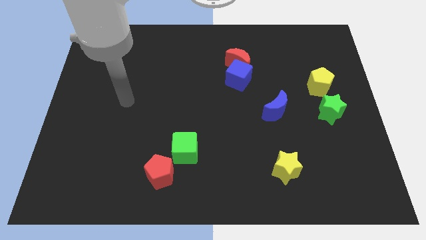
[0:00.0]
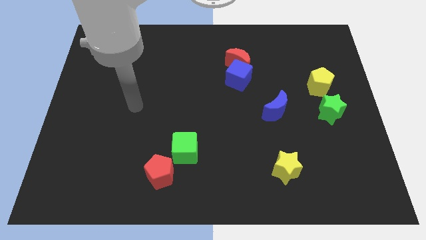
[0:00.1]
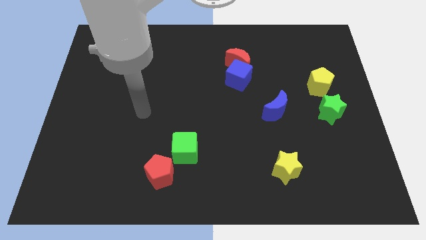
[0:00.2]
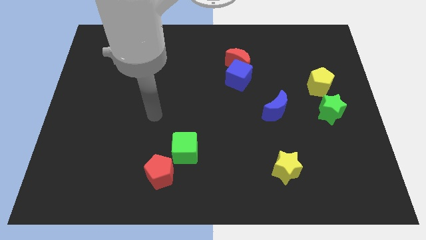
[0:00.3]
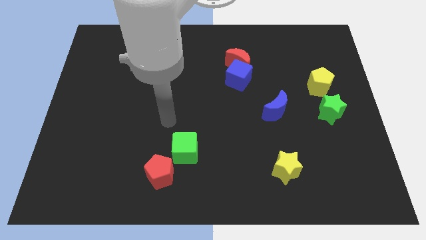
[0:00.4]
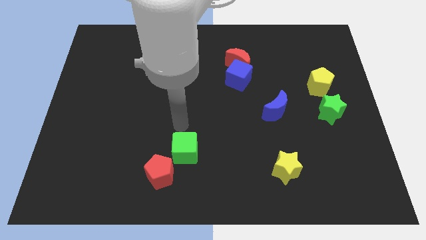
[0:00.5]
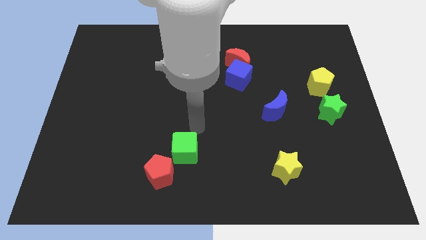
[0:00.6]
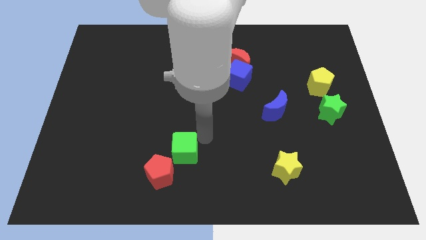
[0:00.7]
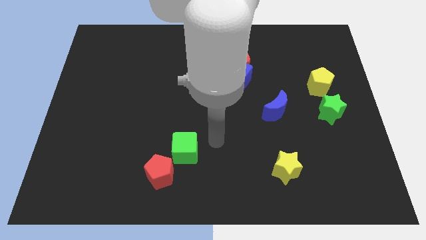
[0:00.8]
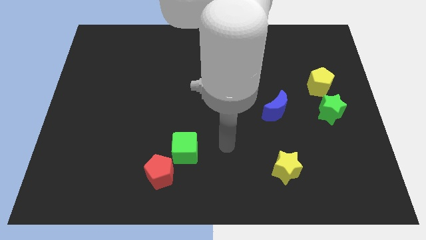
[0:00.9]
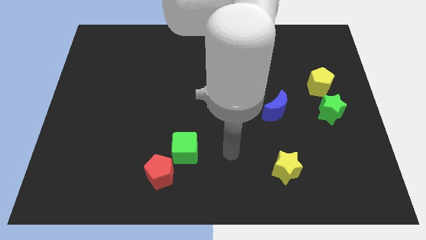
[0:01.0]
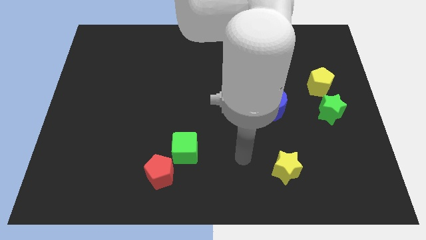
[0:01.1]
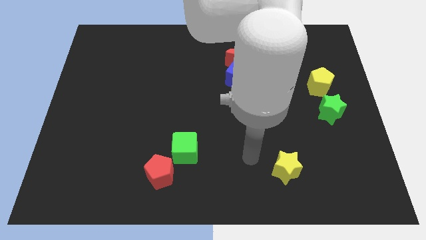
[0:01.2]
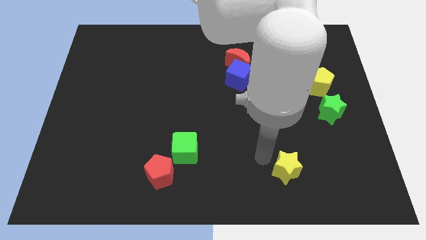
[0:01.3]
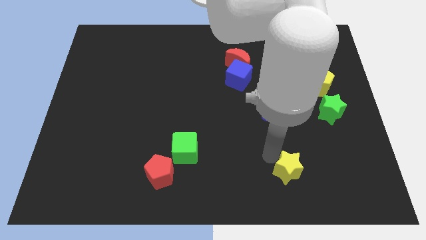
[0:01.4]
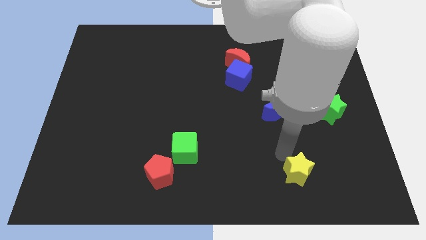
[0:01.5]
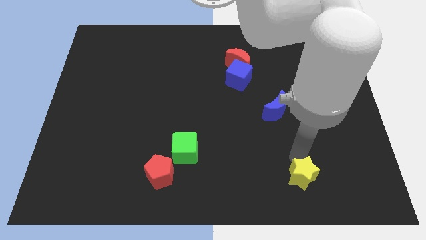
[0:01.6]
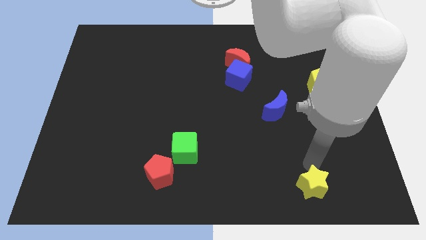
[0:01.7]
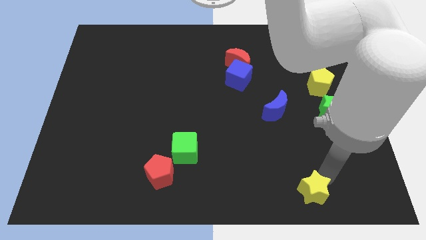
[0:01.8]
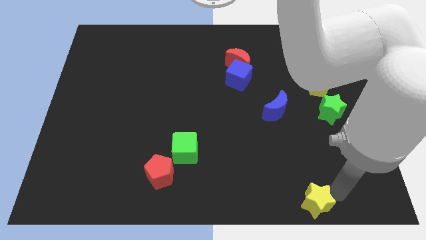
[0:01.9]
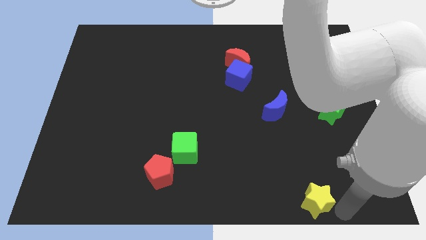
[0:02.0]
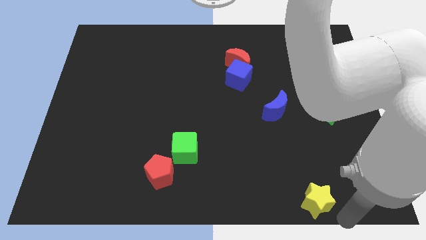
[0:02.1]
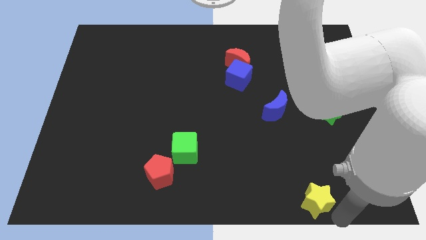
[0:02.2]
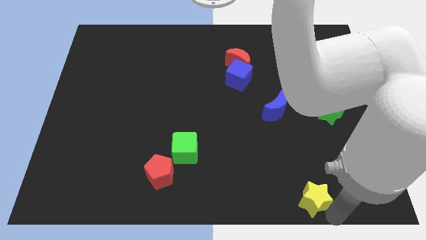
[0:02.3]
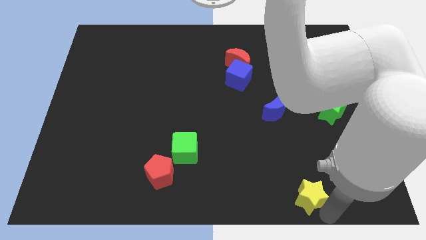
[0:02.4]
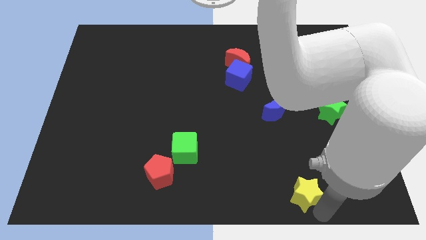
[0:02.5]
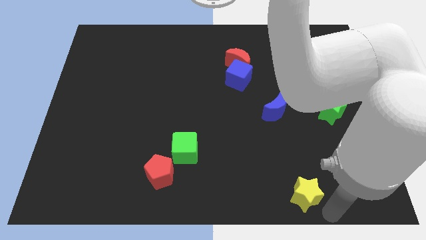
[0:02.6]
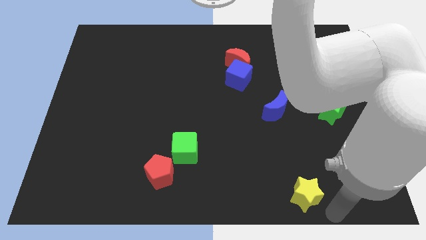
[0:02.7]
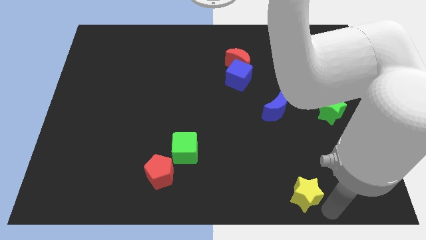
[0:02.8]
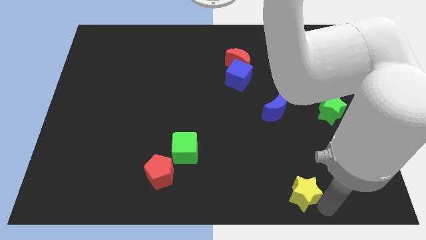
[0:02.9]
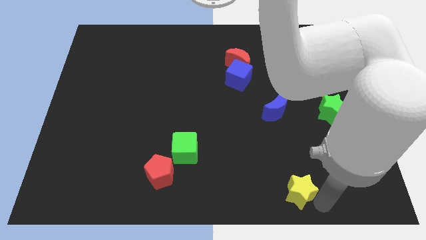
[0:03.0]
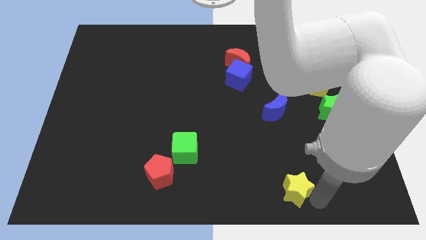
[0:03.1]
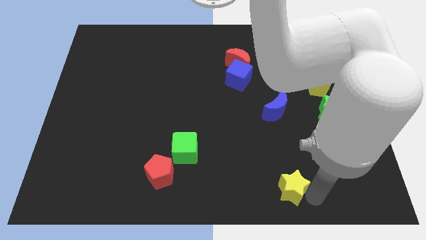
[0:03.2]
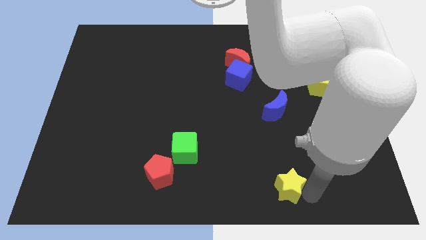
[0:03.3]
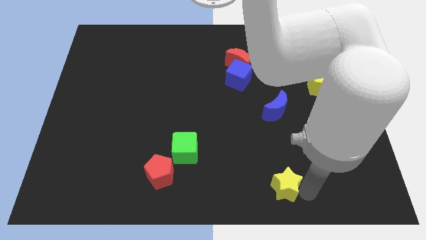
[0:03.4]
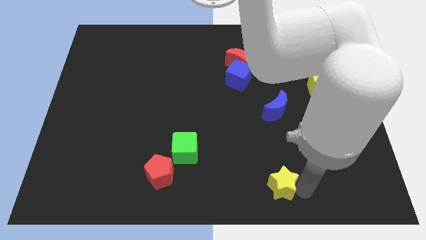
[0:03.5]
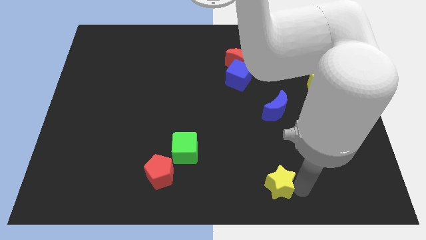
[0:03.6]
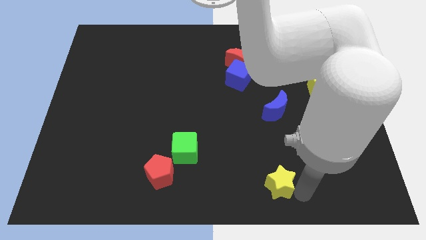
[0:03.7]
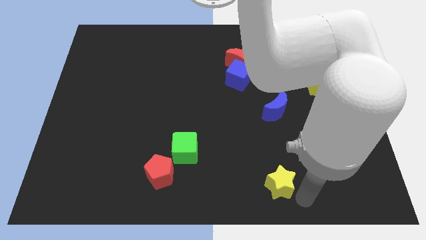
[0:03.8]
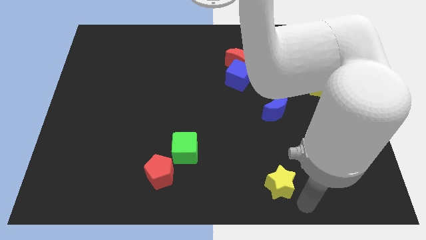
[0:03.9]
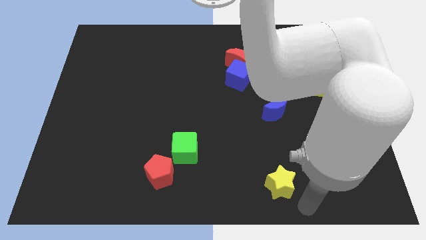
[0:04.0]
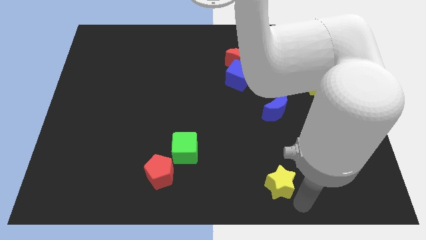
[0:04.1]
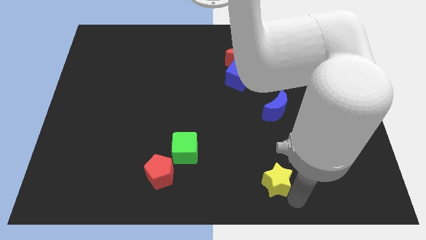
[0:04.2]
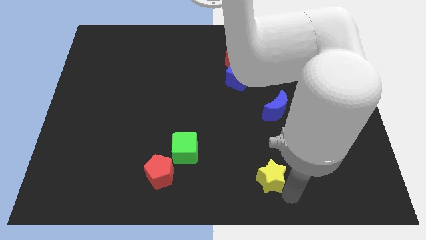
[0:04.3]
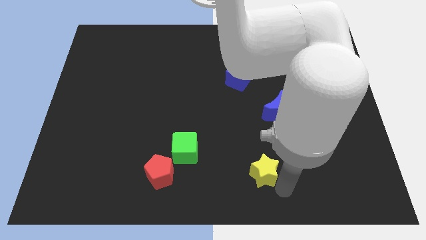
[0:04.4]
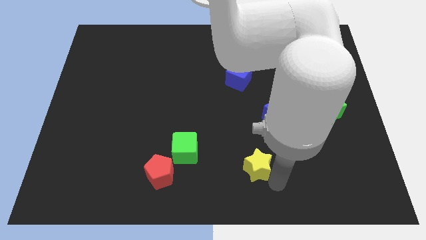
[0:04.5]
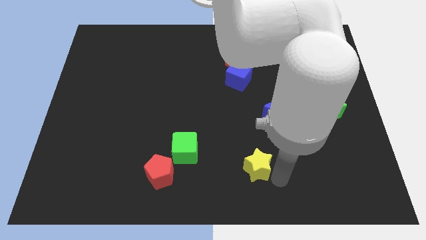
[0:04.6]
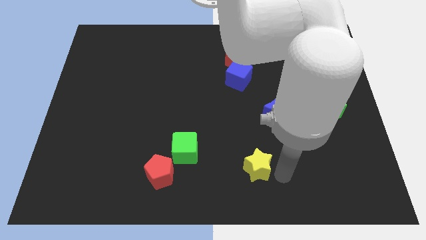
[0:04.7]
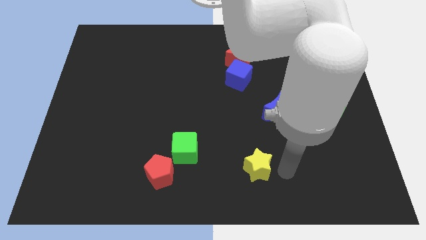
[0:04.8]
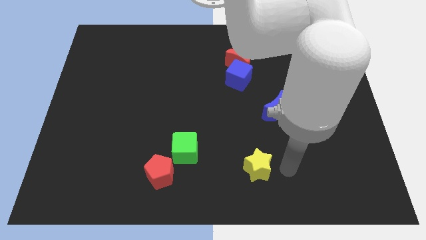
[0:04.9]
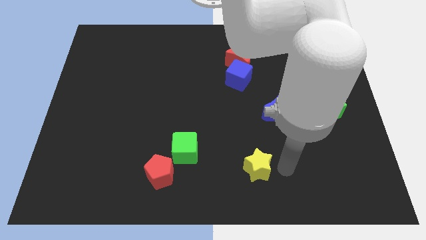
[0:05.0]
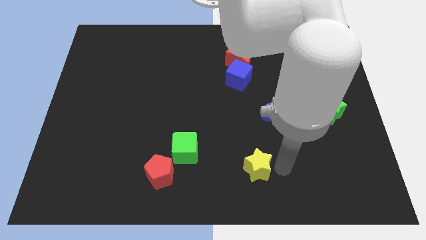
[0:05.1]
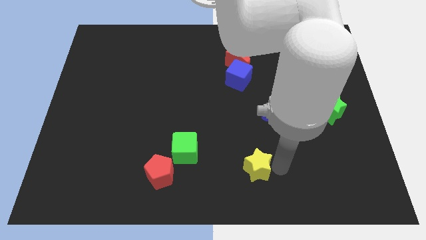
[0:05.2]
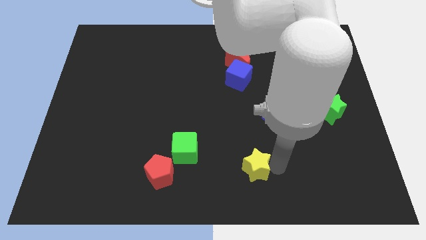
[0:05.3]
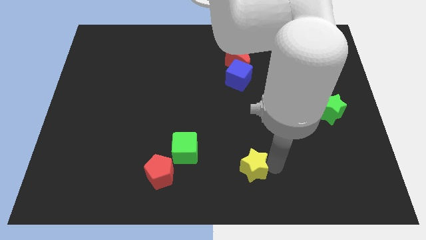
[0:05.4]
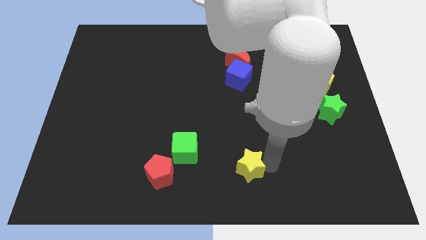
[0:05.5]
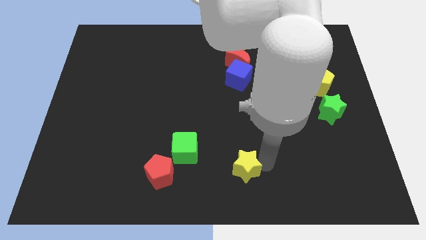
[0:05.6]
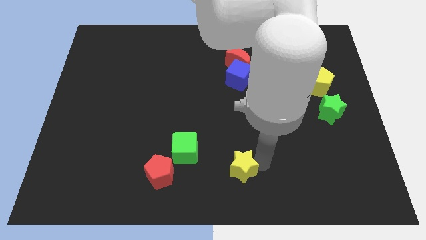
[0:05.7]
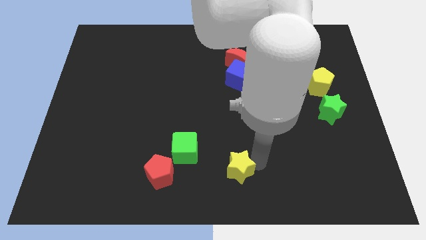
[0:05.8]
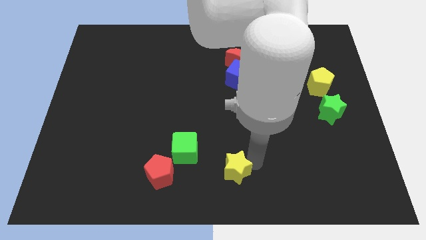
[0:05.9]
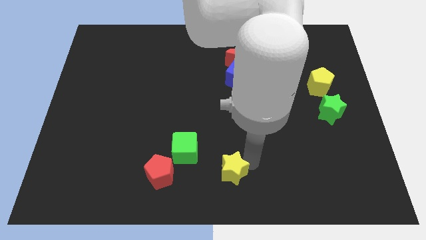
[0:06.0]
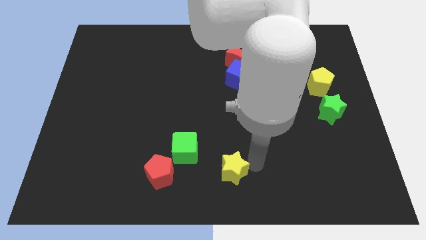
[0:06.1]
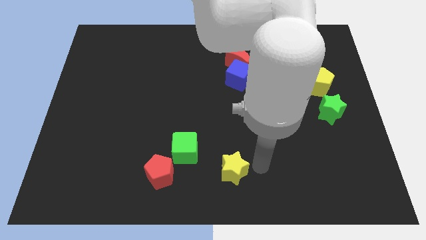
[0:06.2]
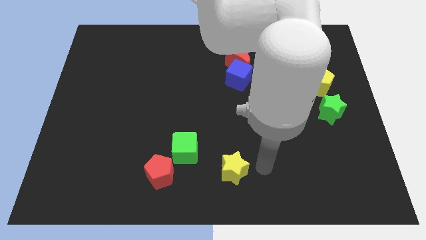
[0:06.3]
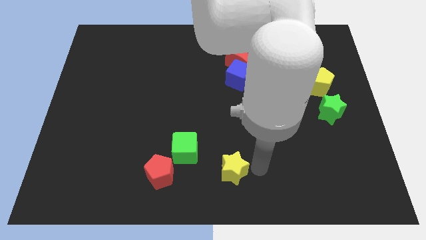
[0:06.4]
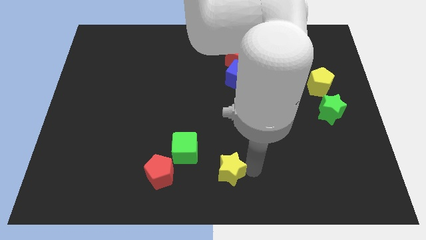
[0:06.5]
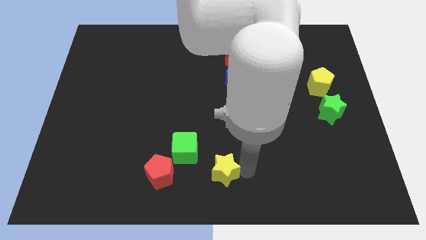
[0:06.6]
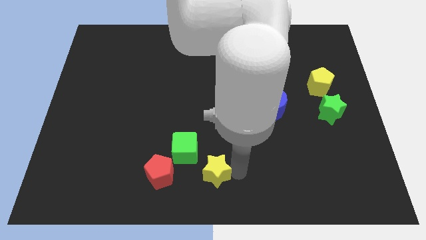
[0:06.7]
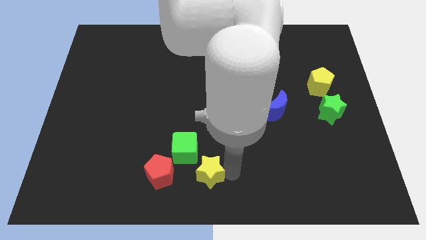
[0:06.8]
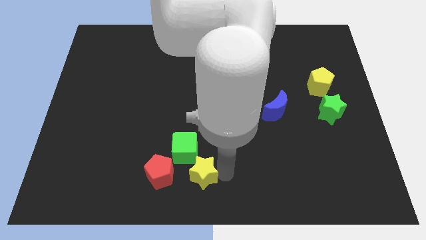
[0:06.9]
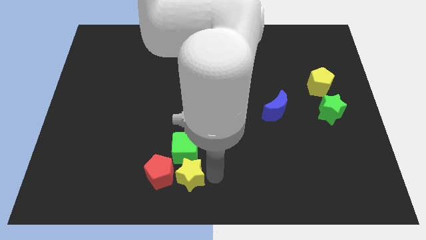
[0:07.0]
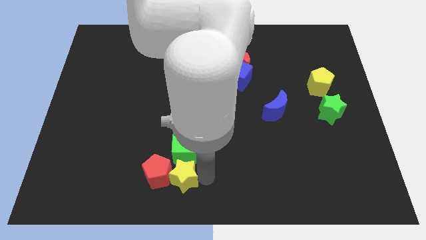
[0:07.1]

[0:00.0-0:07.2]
slide the yellow star close to the red pentagon
